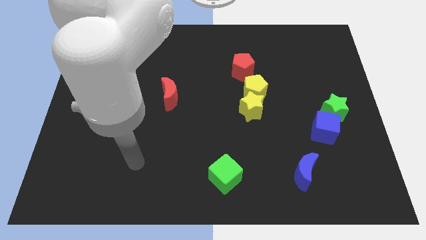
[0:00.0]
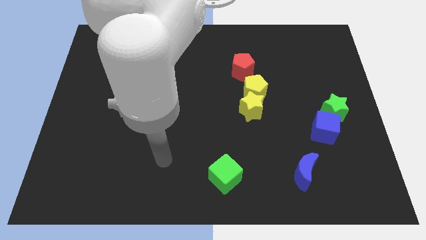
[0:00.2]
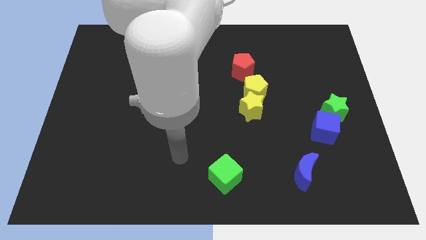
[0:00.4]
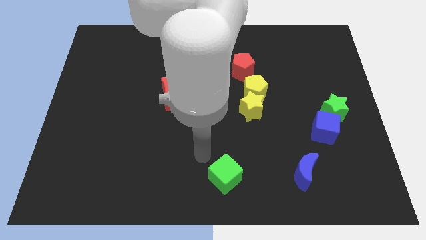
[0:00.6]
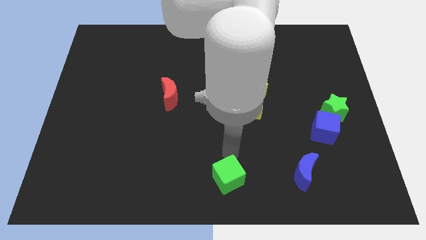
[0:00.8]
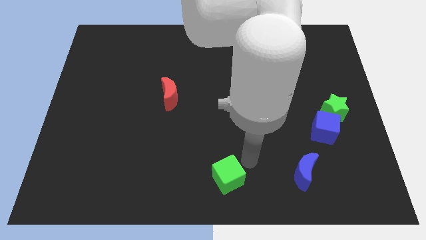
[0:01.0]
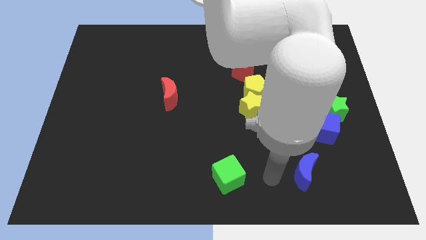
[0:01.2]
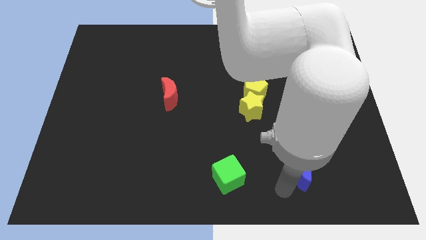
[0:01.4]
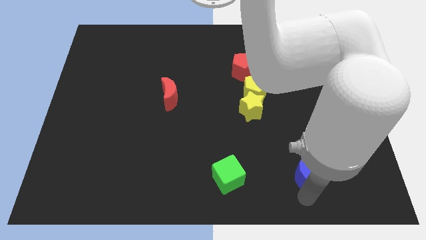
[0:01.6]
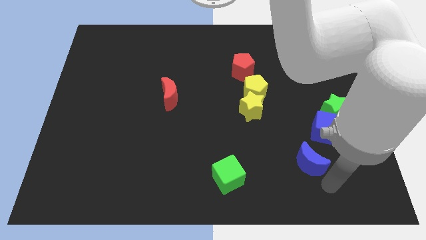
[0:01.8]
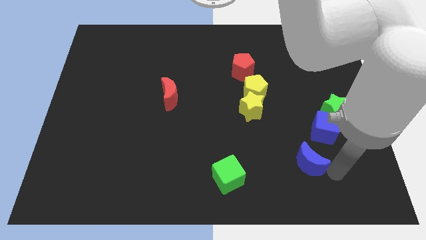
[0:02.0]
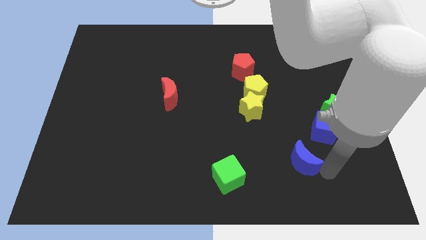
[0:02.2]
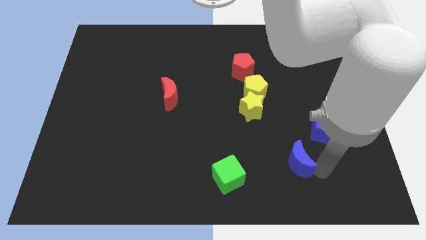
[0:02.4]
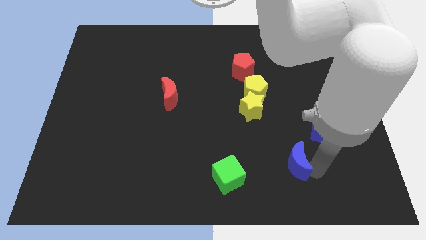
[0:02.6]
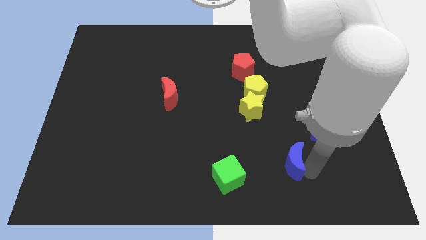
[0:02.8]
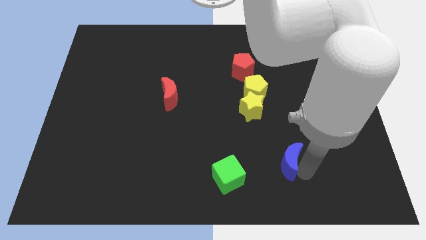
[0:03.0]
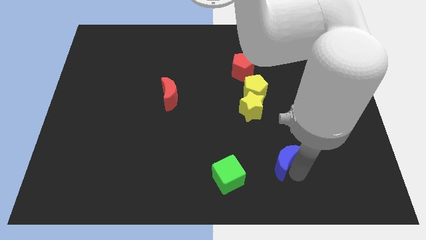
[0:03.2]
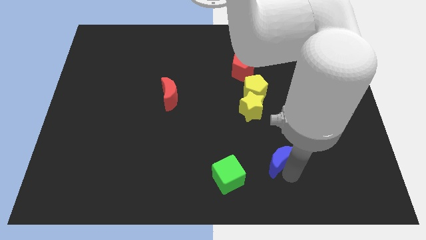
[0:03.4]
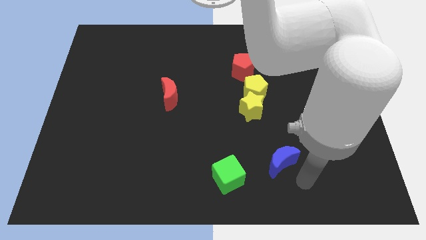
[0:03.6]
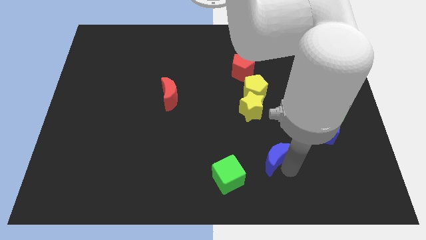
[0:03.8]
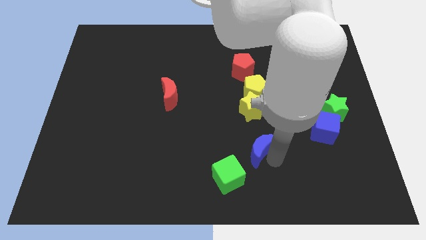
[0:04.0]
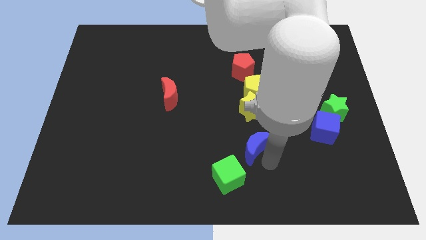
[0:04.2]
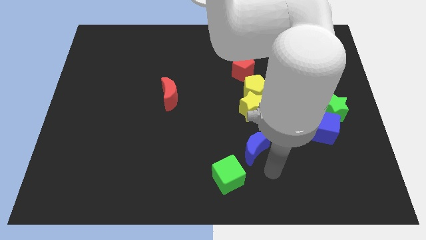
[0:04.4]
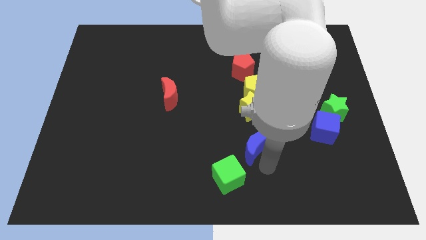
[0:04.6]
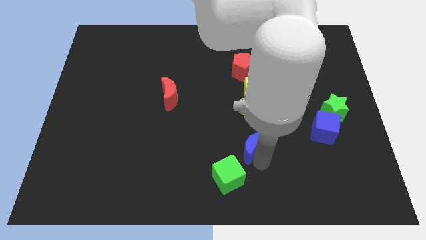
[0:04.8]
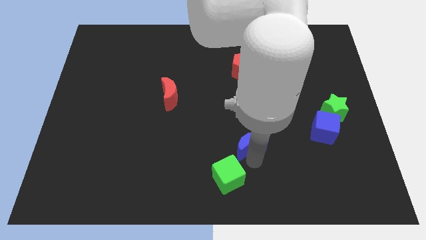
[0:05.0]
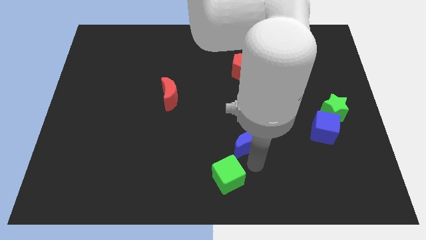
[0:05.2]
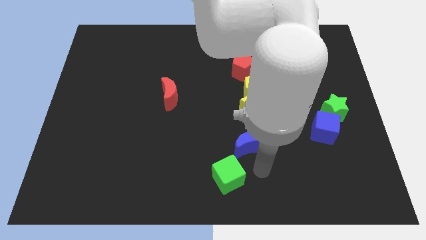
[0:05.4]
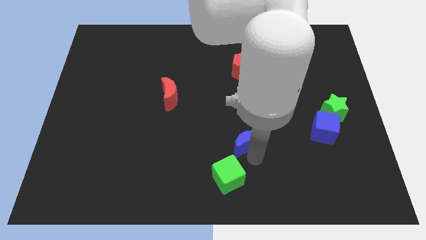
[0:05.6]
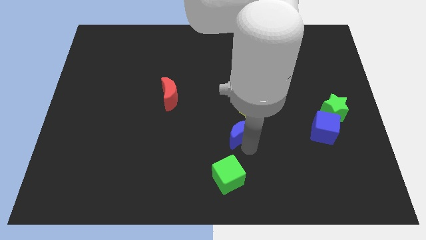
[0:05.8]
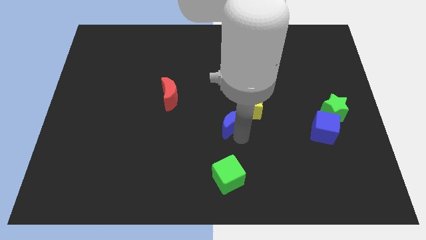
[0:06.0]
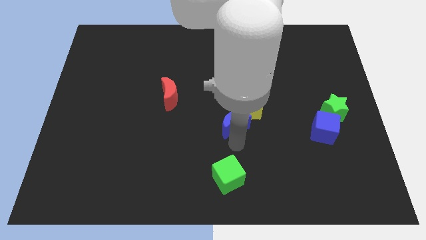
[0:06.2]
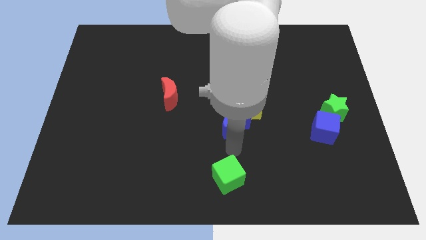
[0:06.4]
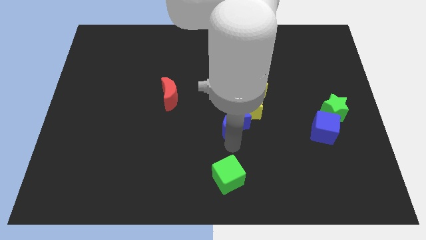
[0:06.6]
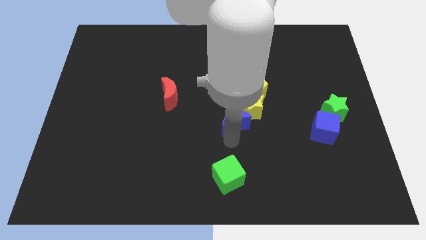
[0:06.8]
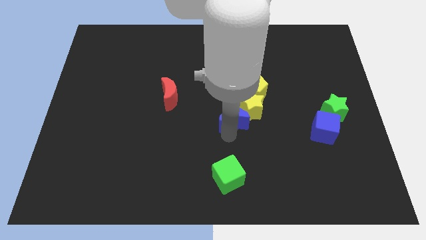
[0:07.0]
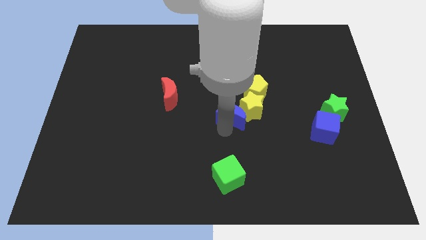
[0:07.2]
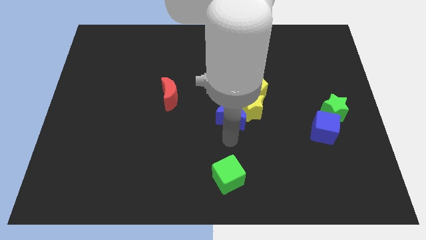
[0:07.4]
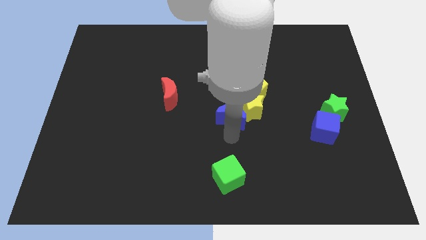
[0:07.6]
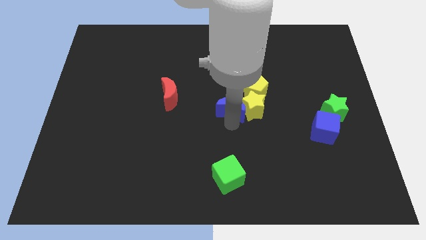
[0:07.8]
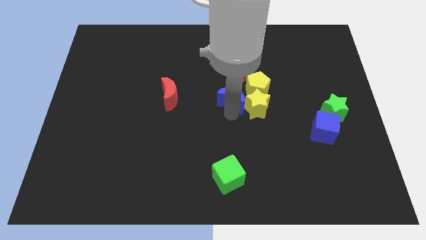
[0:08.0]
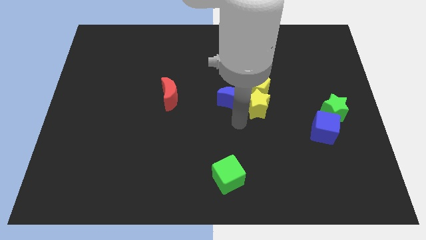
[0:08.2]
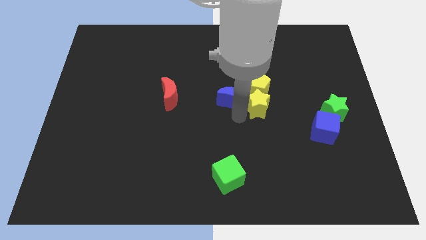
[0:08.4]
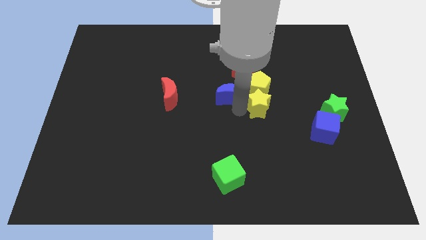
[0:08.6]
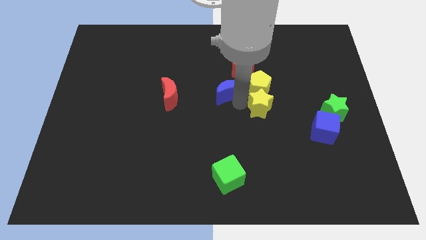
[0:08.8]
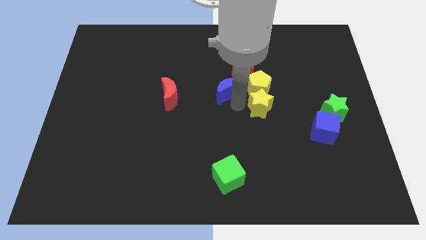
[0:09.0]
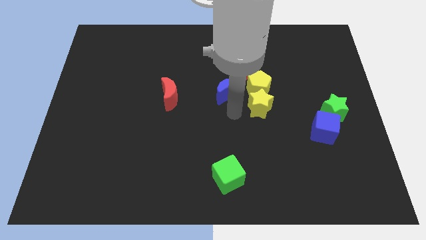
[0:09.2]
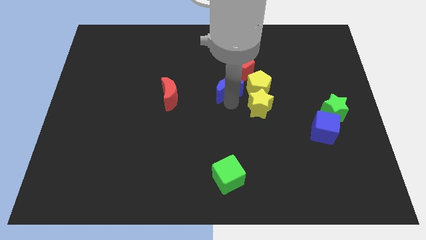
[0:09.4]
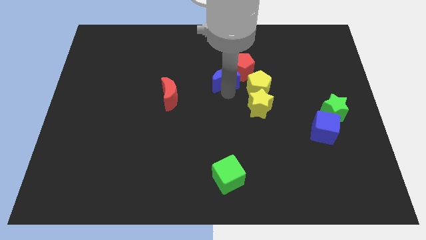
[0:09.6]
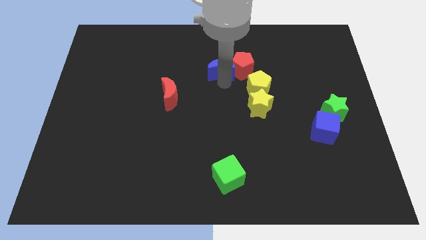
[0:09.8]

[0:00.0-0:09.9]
slide the blue moon diagonally up and to the left of the red pentagon

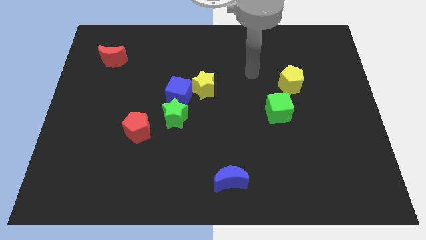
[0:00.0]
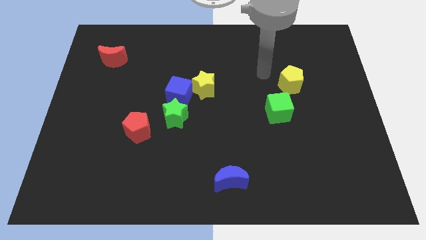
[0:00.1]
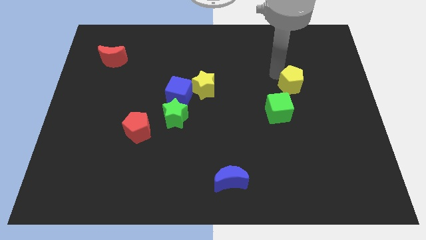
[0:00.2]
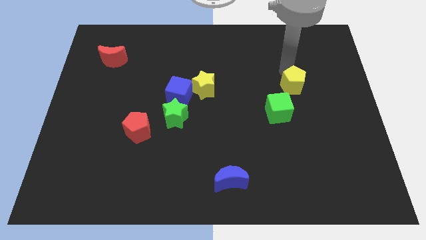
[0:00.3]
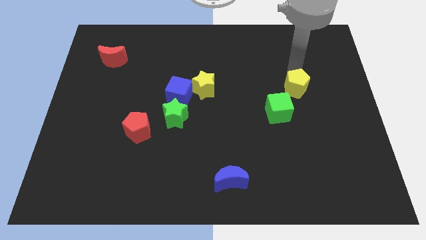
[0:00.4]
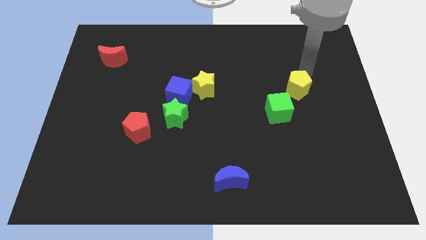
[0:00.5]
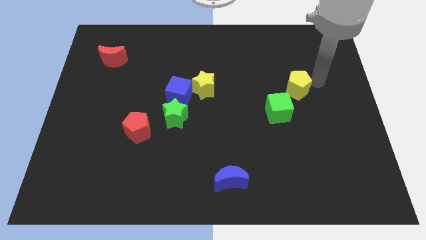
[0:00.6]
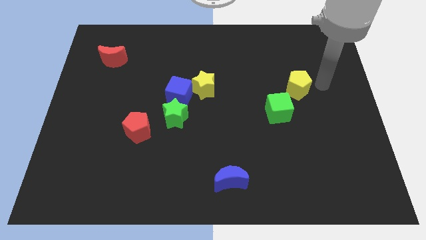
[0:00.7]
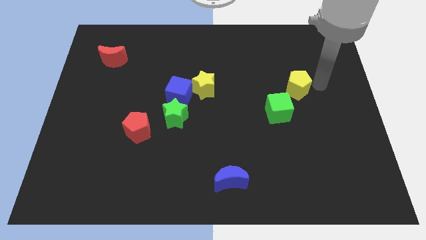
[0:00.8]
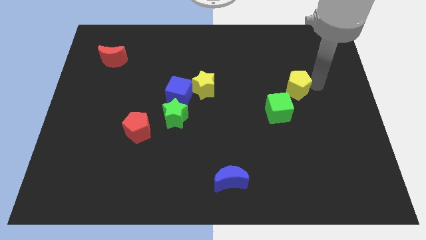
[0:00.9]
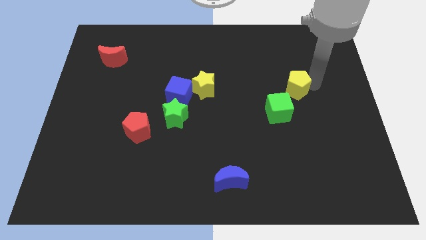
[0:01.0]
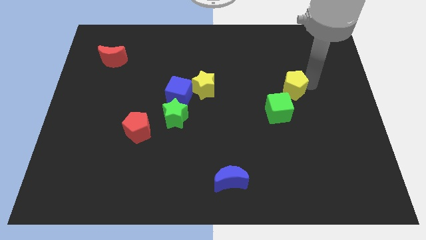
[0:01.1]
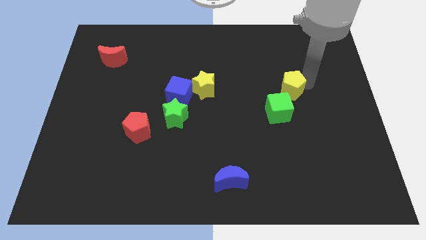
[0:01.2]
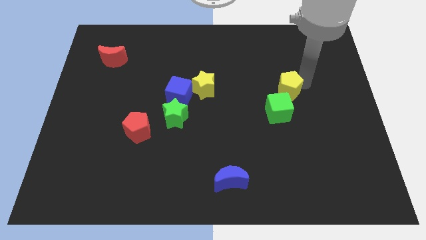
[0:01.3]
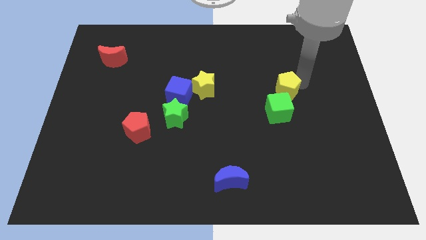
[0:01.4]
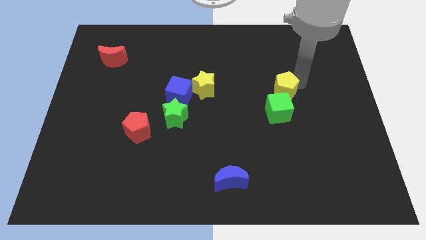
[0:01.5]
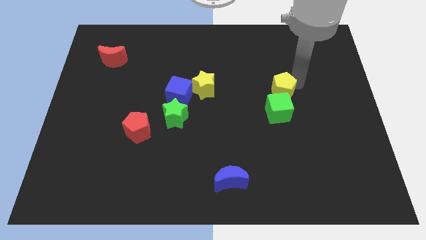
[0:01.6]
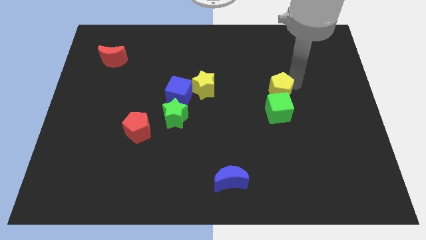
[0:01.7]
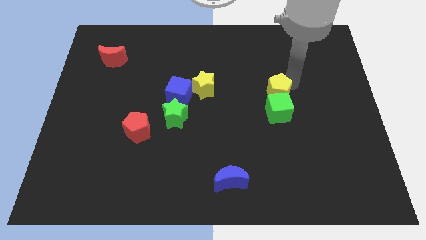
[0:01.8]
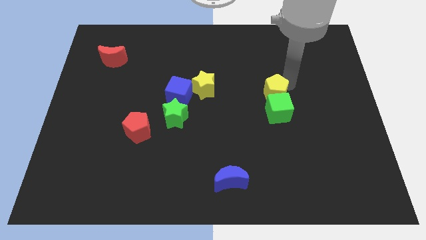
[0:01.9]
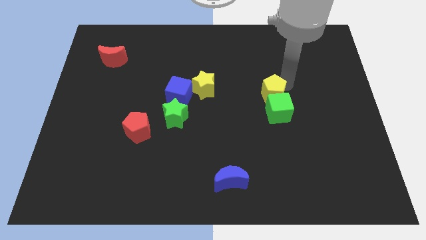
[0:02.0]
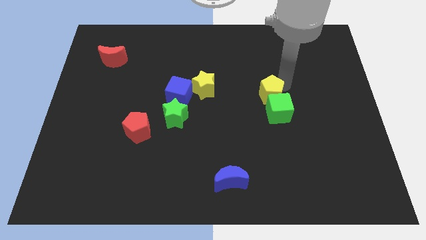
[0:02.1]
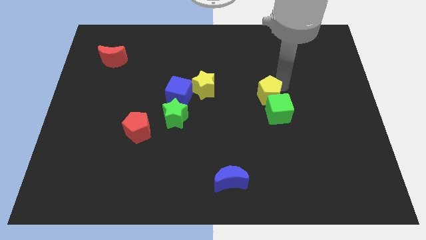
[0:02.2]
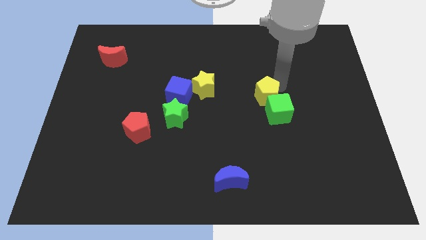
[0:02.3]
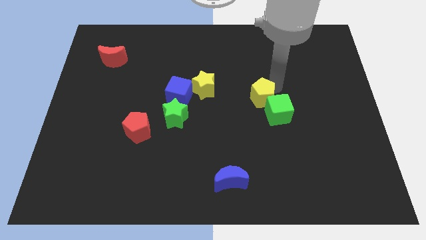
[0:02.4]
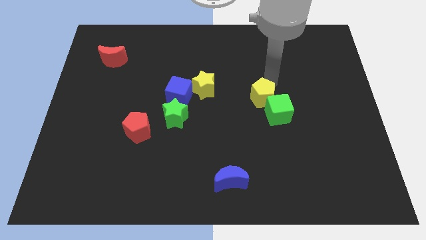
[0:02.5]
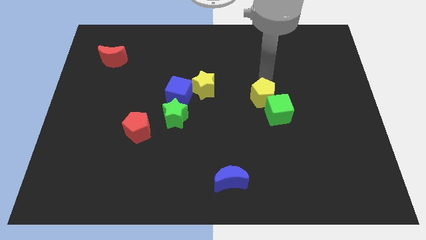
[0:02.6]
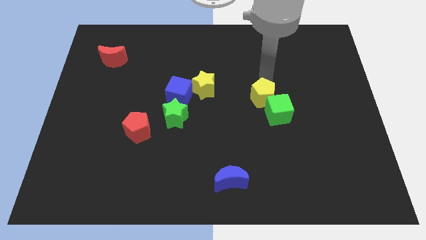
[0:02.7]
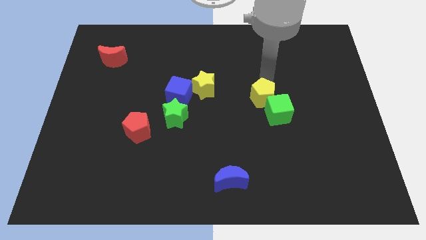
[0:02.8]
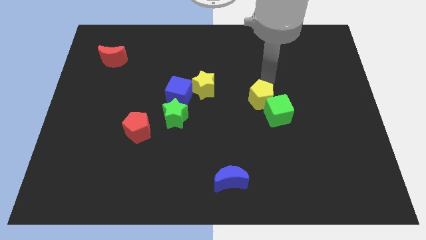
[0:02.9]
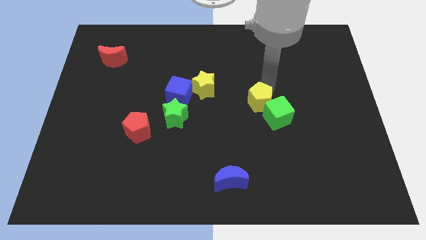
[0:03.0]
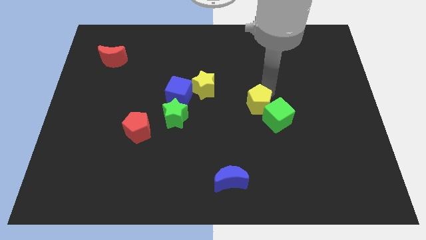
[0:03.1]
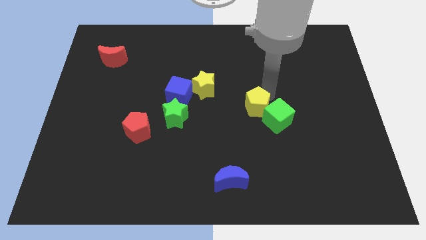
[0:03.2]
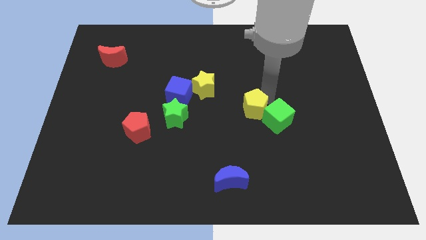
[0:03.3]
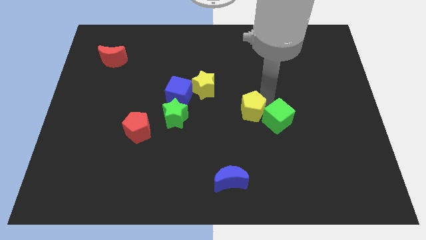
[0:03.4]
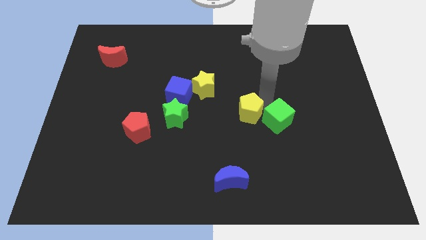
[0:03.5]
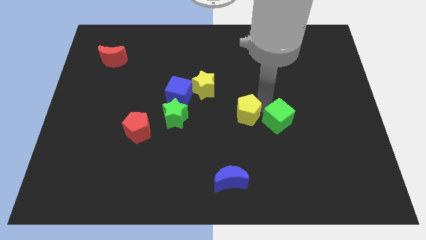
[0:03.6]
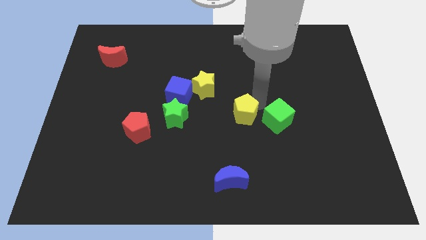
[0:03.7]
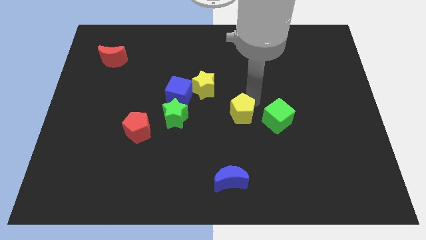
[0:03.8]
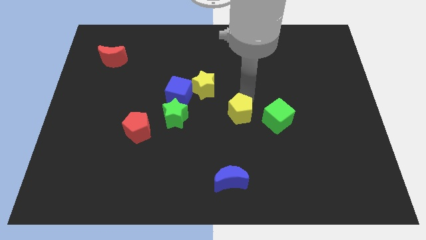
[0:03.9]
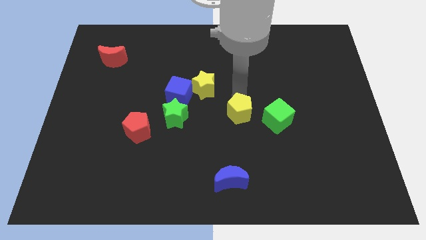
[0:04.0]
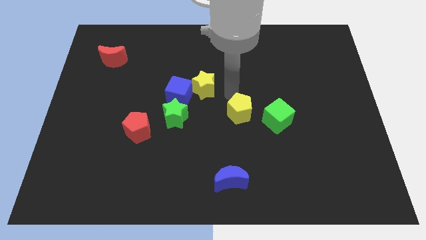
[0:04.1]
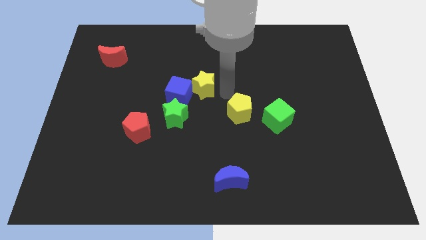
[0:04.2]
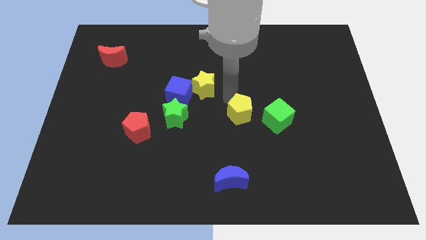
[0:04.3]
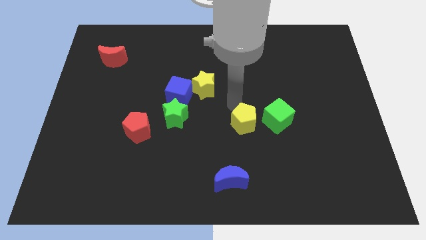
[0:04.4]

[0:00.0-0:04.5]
push the yellow pentagon to the bottom left of the green cube
